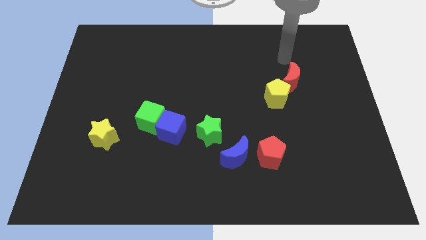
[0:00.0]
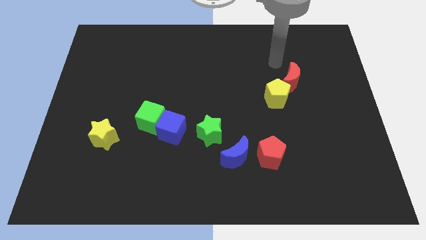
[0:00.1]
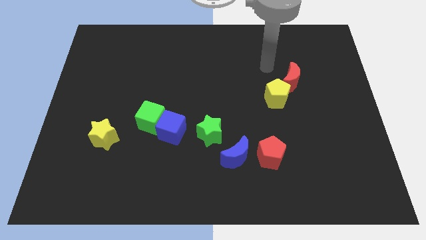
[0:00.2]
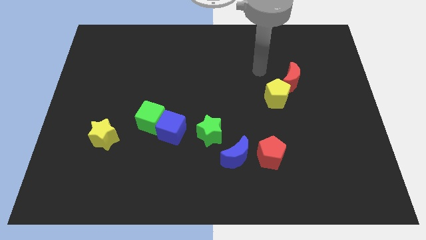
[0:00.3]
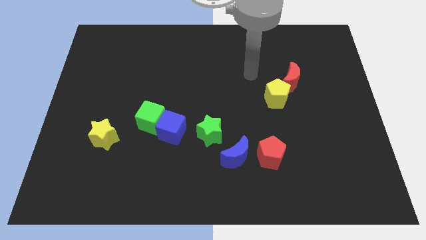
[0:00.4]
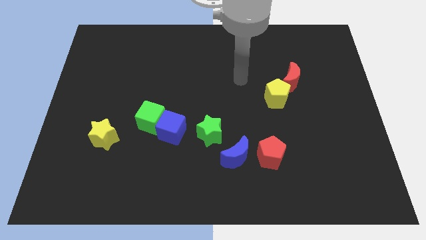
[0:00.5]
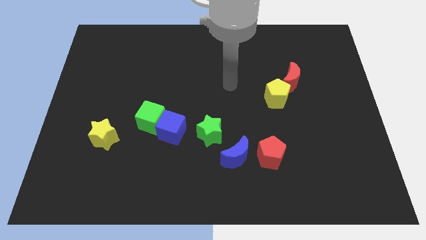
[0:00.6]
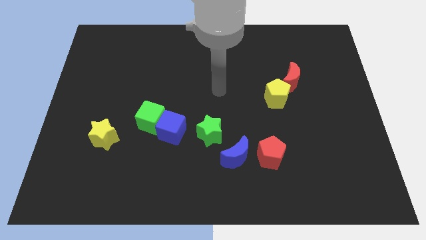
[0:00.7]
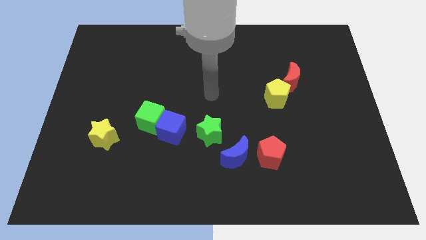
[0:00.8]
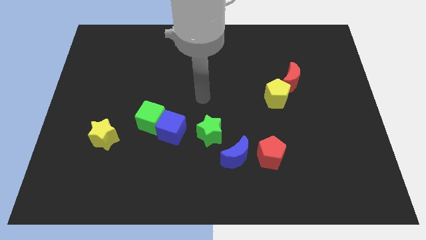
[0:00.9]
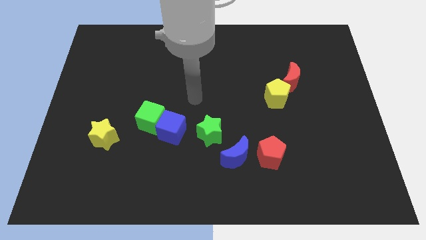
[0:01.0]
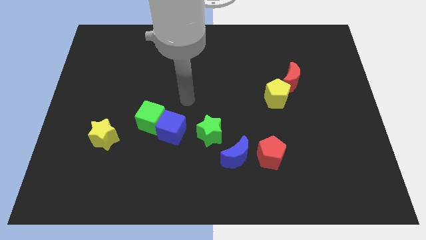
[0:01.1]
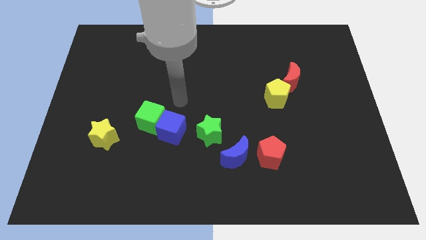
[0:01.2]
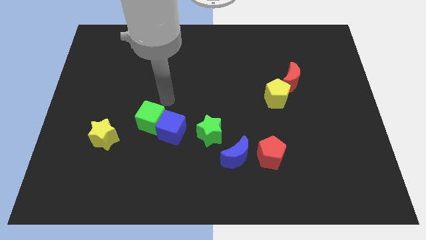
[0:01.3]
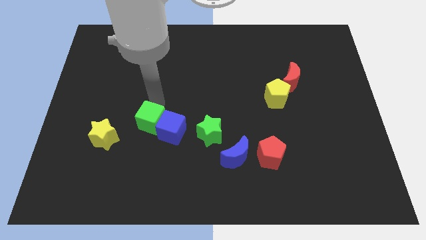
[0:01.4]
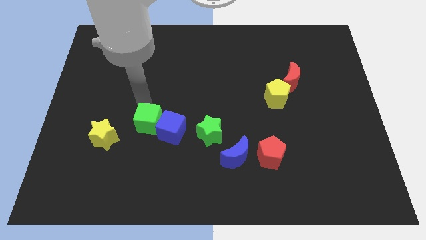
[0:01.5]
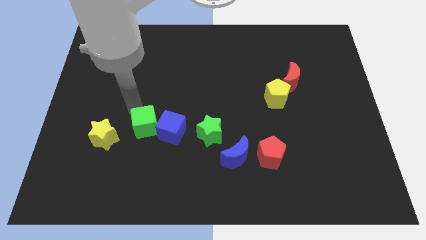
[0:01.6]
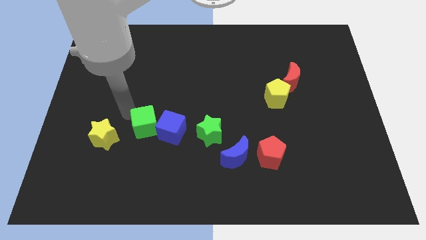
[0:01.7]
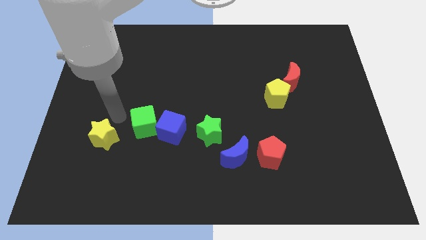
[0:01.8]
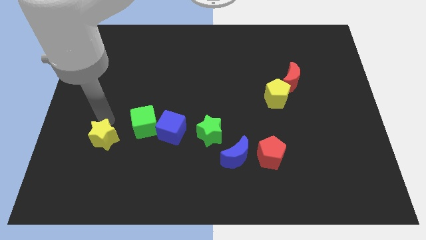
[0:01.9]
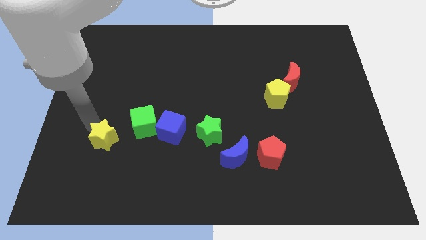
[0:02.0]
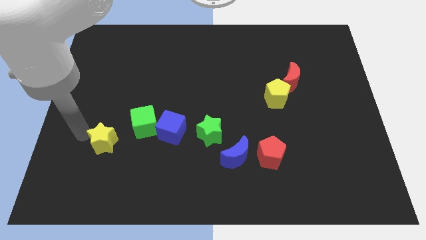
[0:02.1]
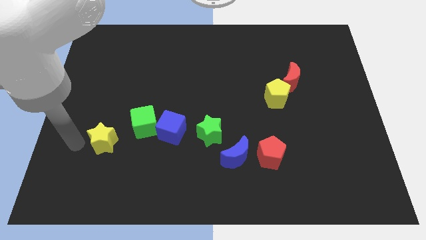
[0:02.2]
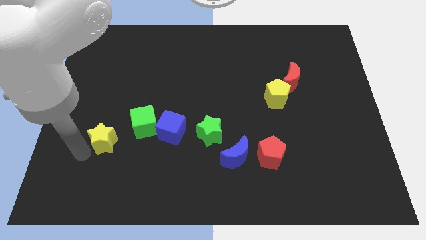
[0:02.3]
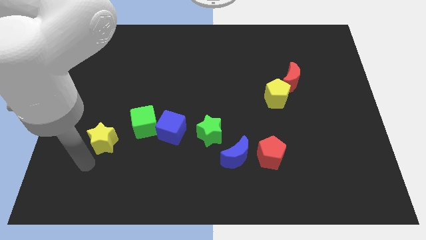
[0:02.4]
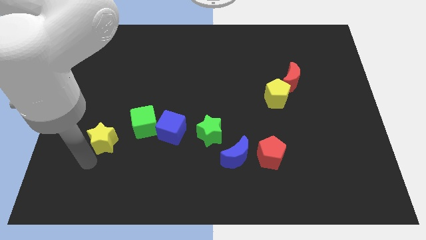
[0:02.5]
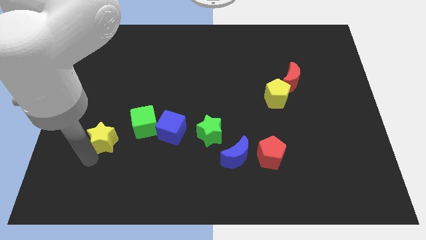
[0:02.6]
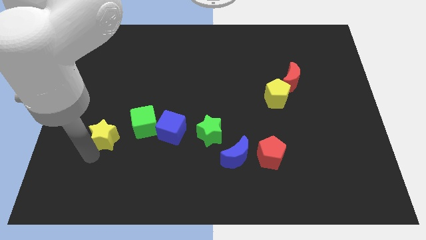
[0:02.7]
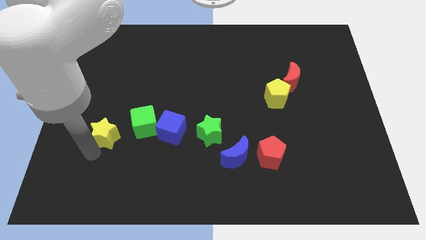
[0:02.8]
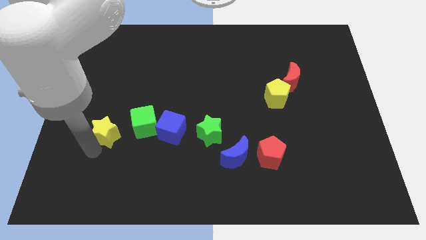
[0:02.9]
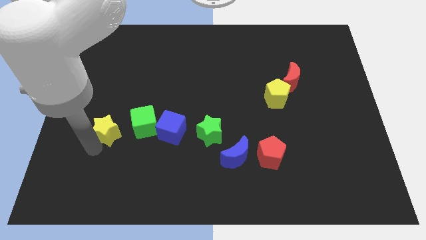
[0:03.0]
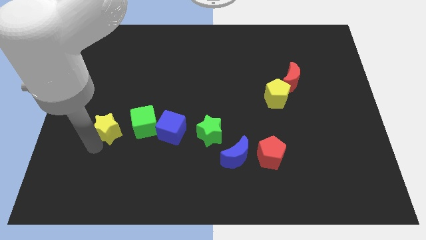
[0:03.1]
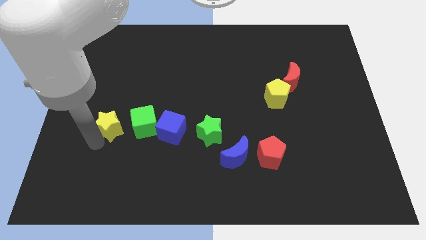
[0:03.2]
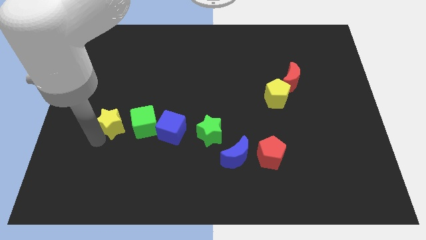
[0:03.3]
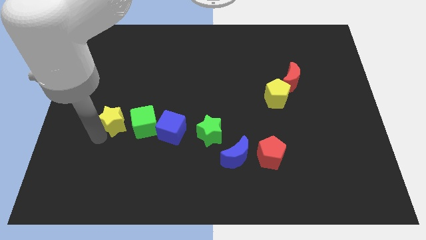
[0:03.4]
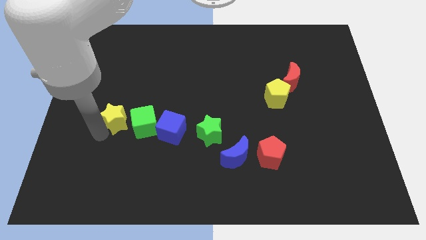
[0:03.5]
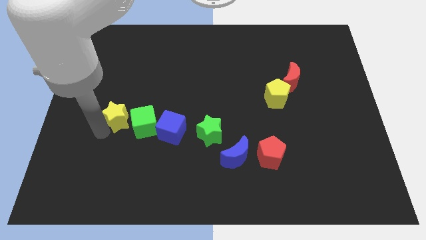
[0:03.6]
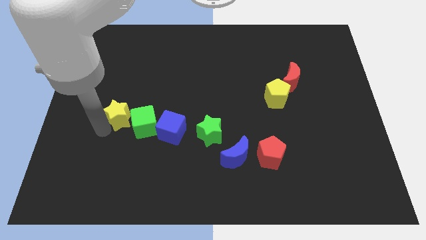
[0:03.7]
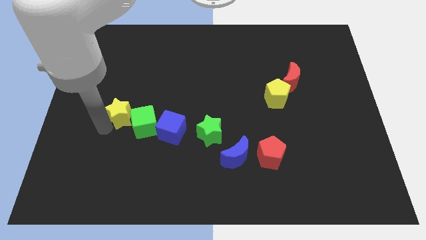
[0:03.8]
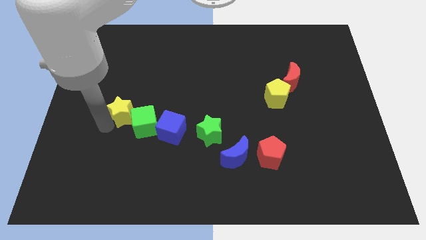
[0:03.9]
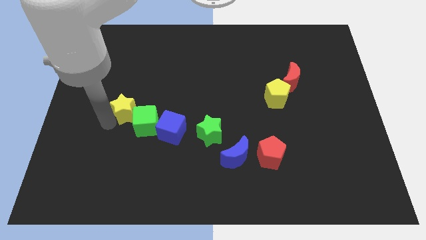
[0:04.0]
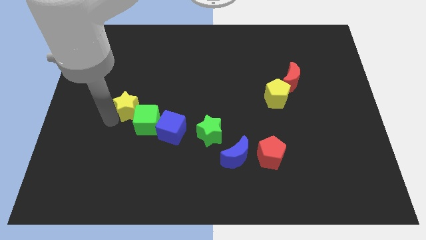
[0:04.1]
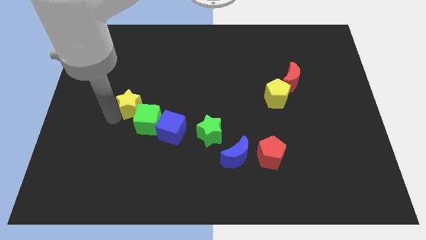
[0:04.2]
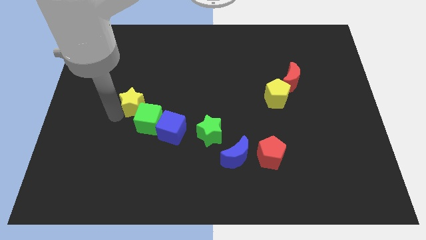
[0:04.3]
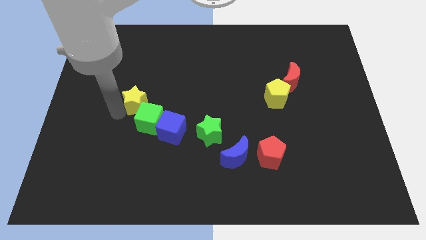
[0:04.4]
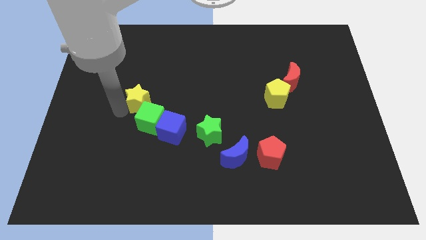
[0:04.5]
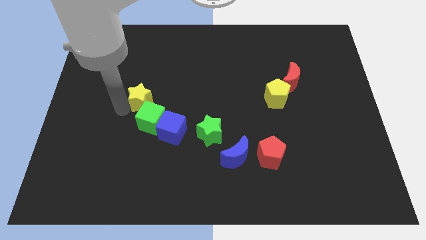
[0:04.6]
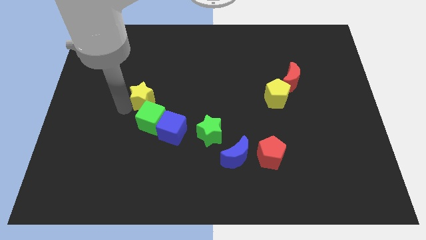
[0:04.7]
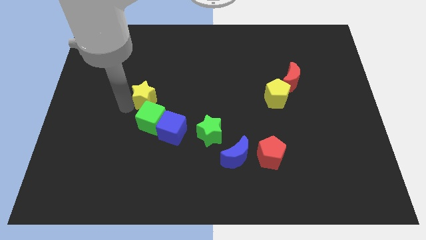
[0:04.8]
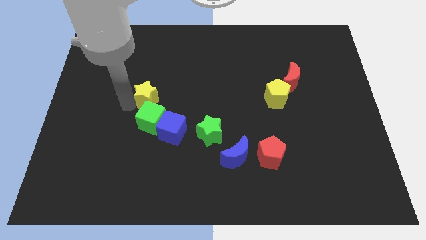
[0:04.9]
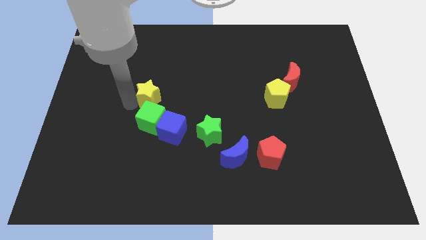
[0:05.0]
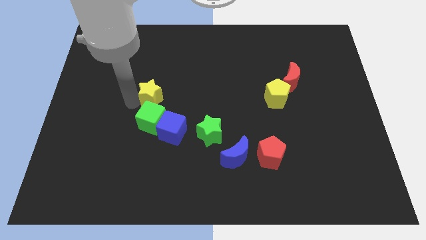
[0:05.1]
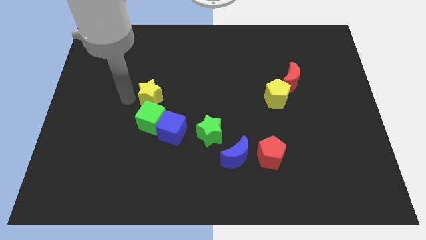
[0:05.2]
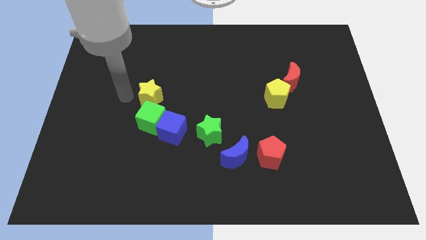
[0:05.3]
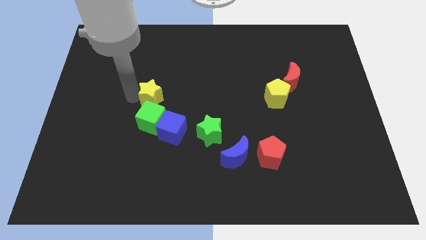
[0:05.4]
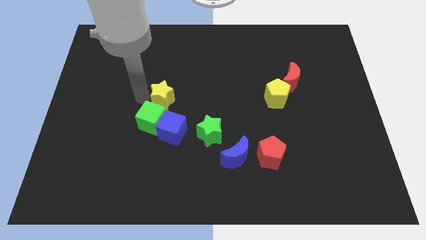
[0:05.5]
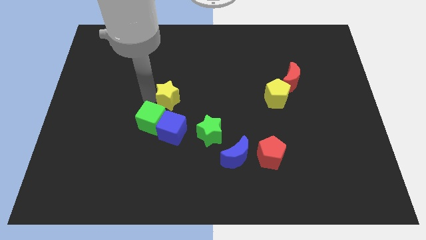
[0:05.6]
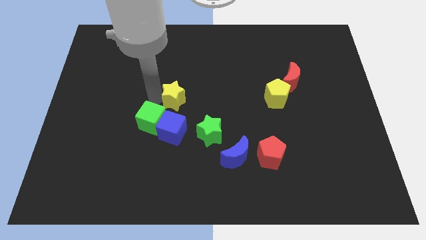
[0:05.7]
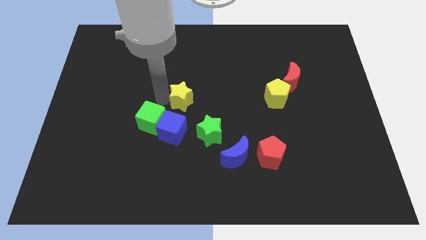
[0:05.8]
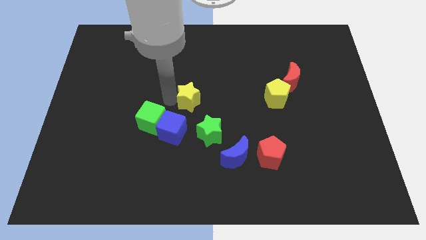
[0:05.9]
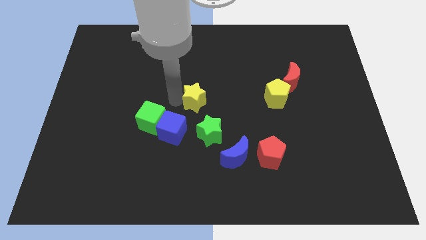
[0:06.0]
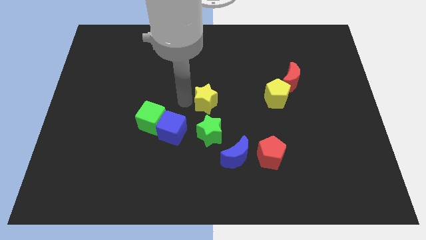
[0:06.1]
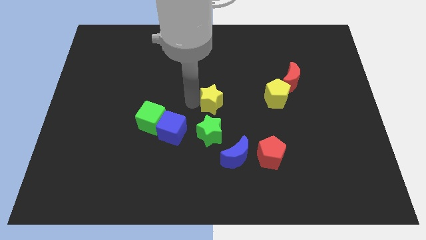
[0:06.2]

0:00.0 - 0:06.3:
put the yellow star to the left of the yellow pentagon

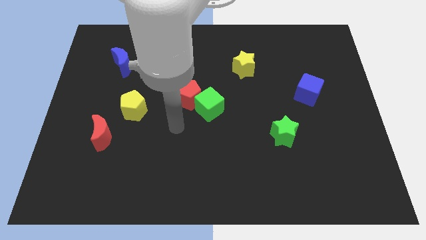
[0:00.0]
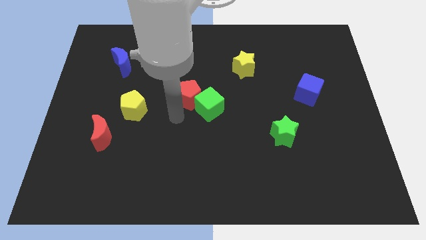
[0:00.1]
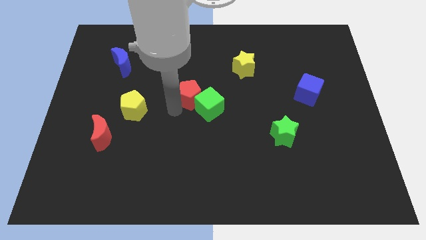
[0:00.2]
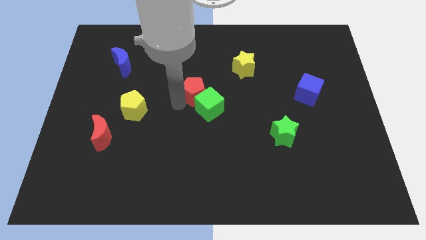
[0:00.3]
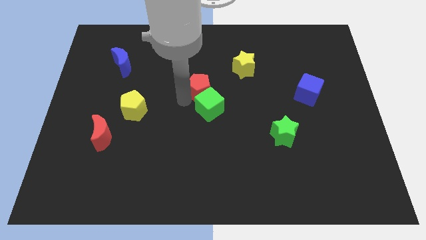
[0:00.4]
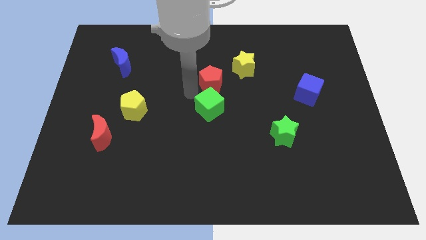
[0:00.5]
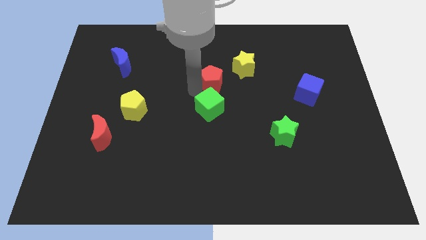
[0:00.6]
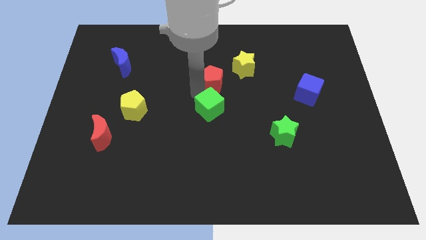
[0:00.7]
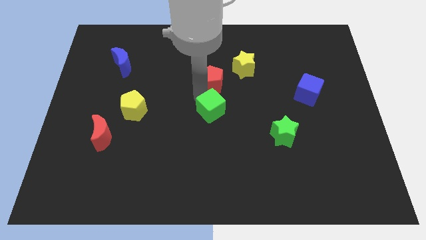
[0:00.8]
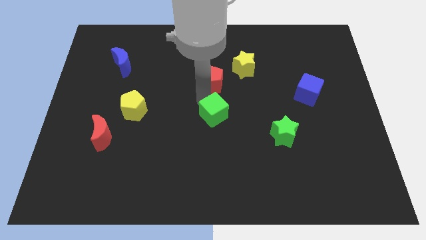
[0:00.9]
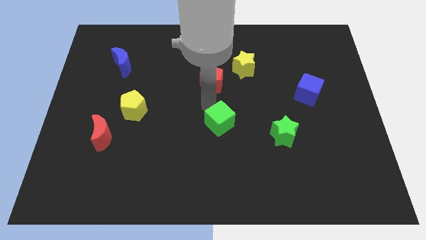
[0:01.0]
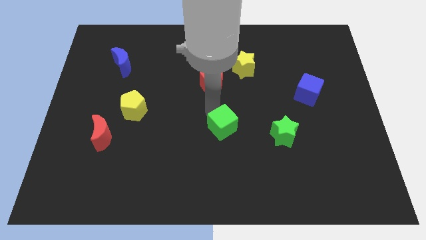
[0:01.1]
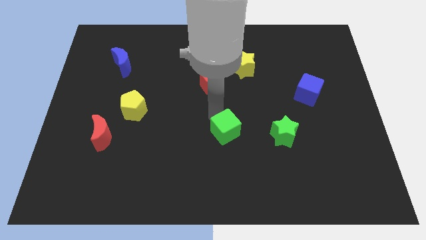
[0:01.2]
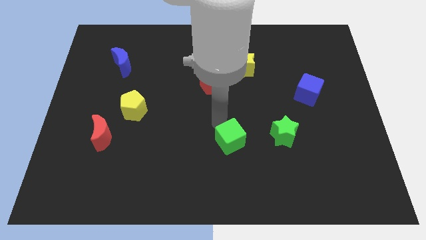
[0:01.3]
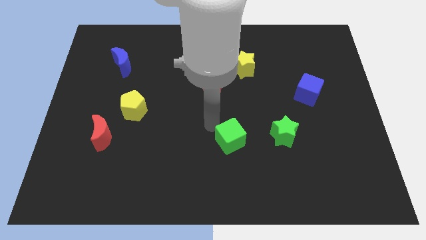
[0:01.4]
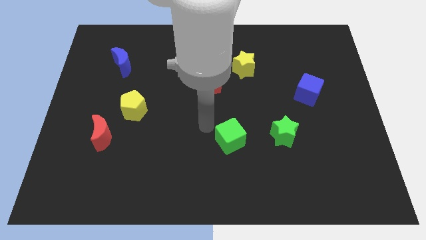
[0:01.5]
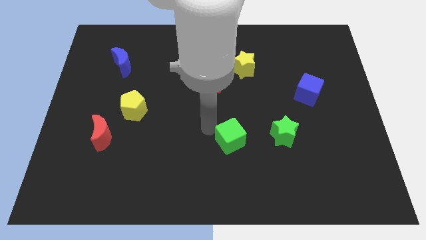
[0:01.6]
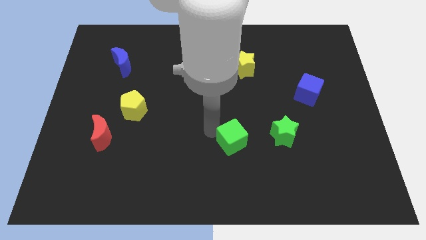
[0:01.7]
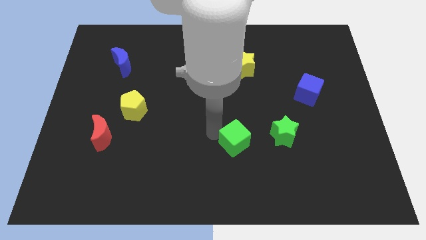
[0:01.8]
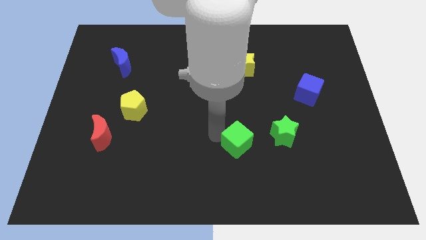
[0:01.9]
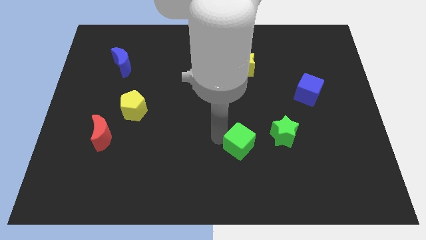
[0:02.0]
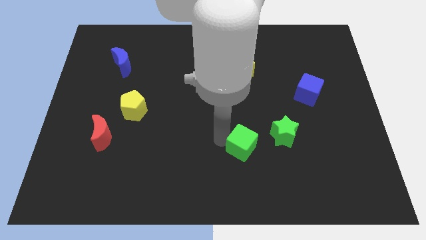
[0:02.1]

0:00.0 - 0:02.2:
slide the green cube to the bottom left side of the green star
